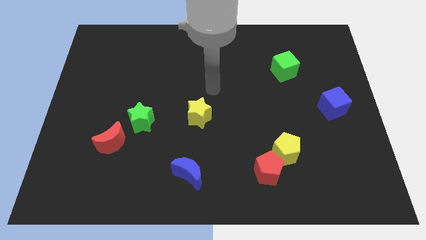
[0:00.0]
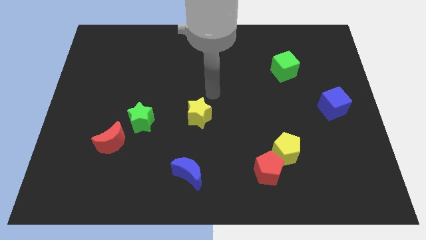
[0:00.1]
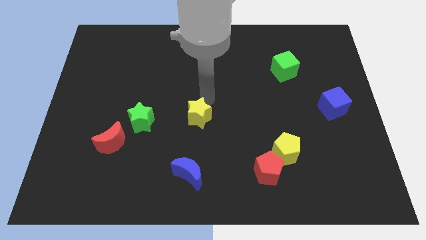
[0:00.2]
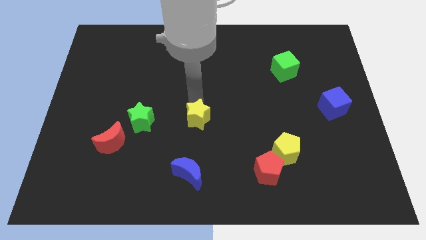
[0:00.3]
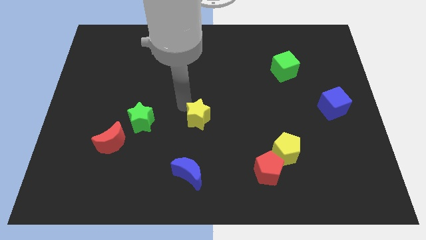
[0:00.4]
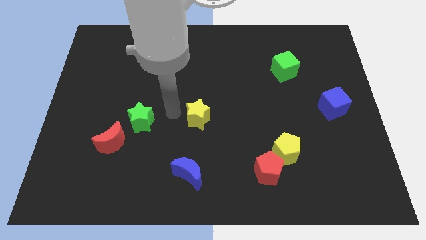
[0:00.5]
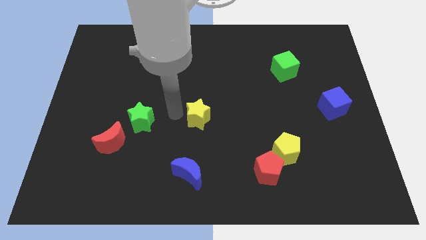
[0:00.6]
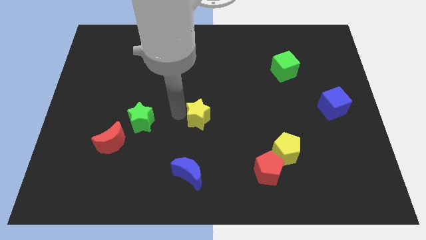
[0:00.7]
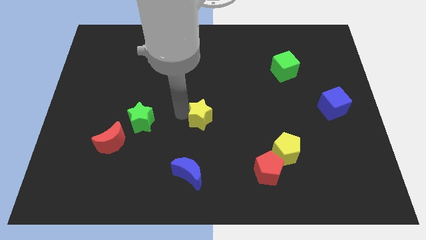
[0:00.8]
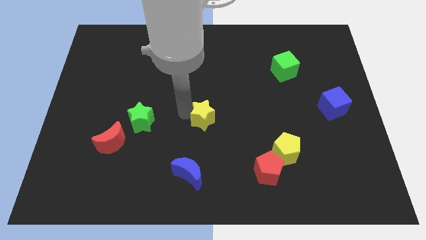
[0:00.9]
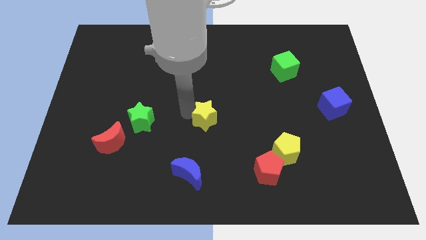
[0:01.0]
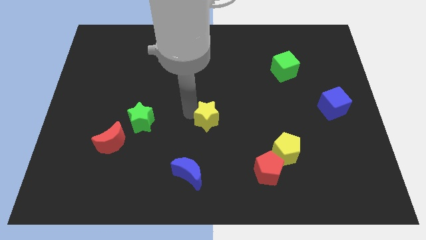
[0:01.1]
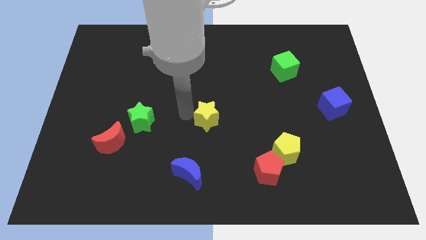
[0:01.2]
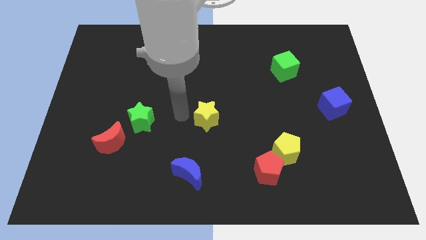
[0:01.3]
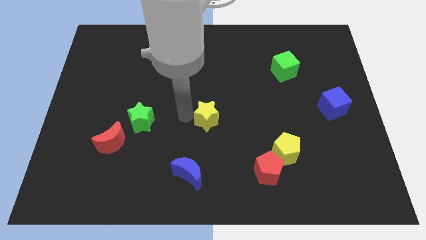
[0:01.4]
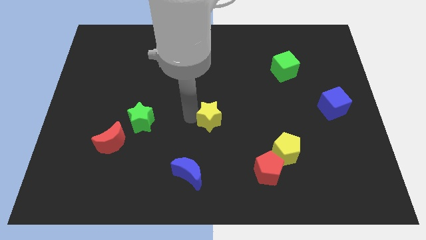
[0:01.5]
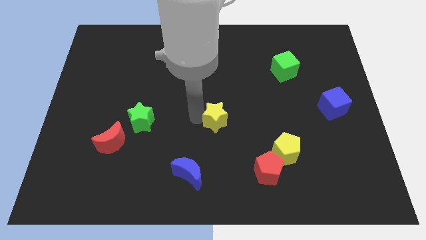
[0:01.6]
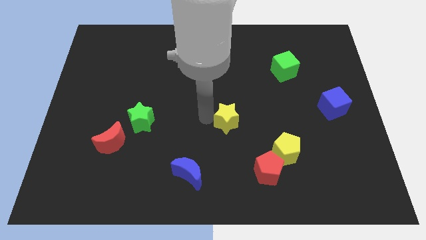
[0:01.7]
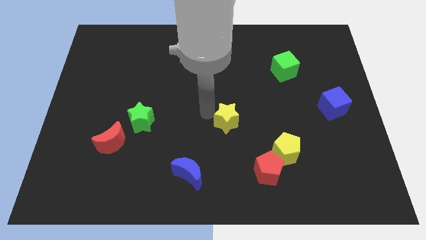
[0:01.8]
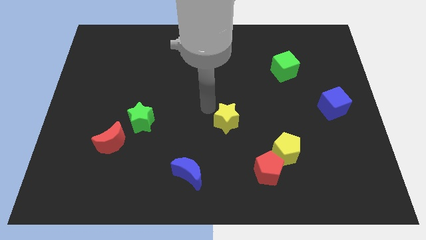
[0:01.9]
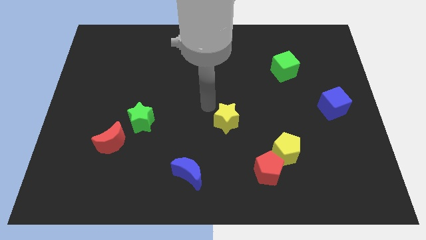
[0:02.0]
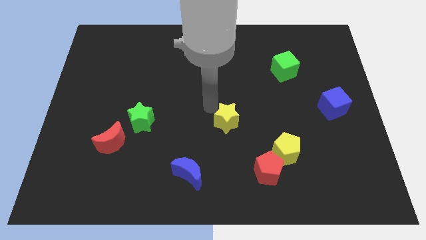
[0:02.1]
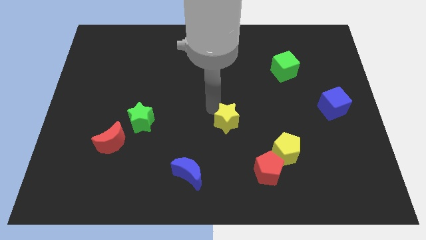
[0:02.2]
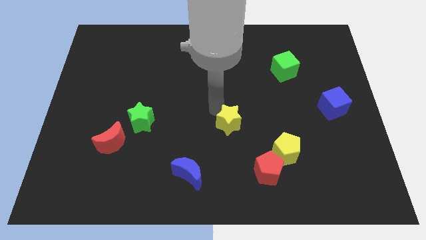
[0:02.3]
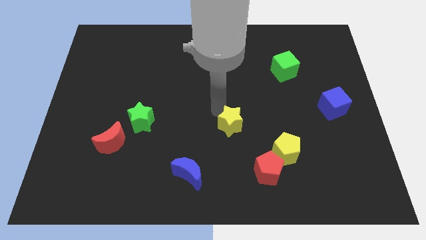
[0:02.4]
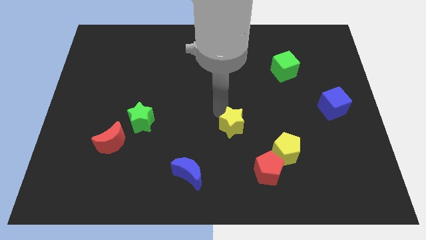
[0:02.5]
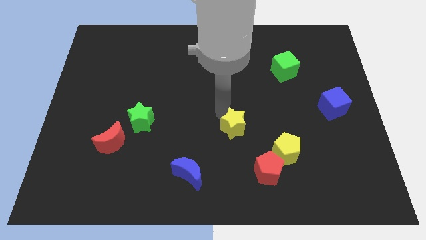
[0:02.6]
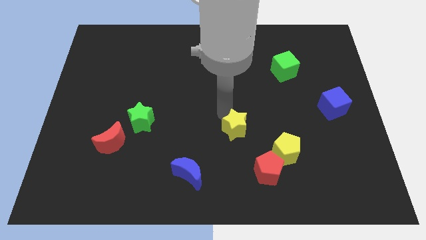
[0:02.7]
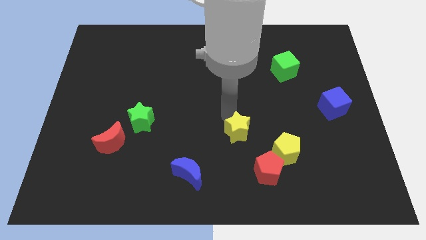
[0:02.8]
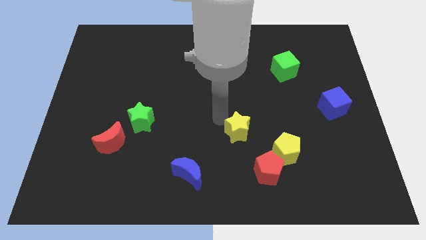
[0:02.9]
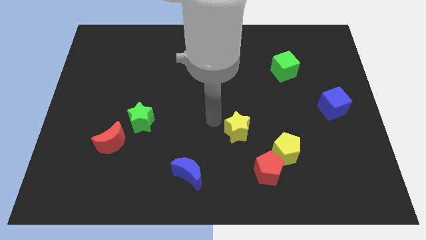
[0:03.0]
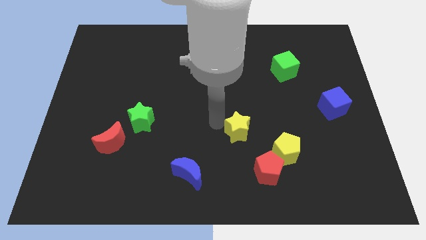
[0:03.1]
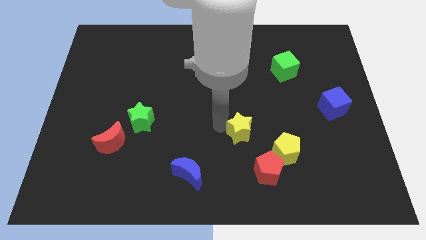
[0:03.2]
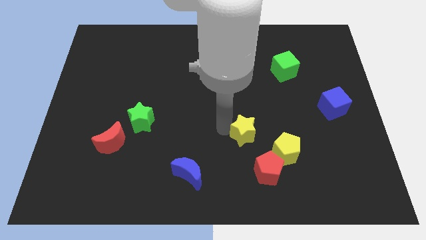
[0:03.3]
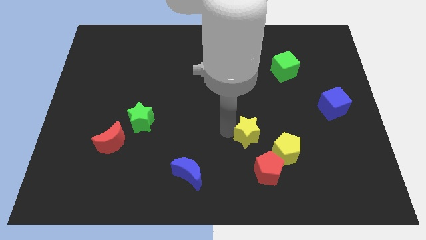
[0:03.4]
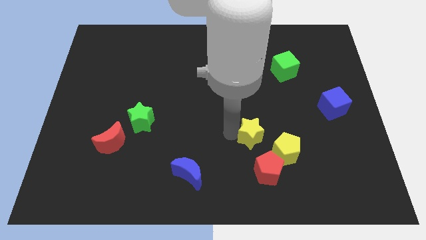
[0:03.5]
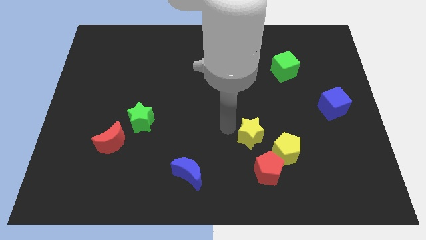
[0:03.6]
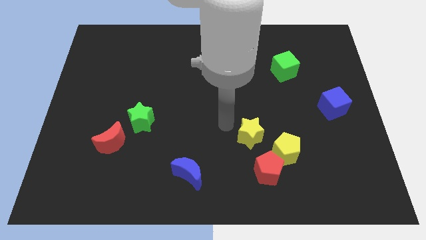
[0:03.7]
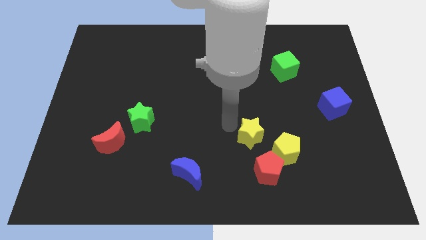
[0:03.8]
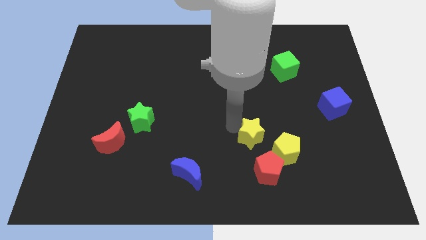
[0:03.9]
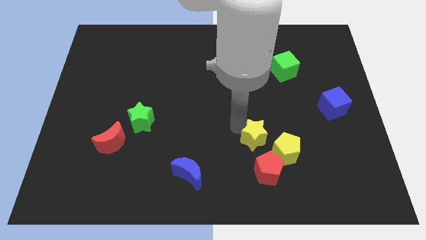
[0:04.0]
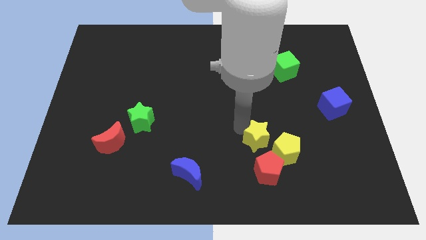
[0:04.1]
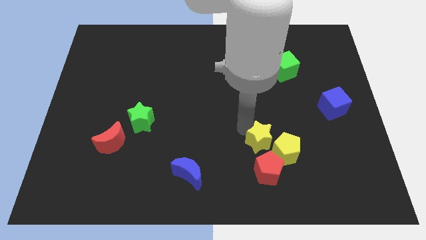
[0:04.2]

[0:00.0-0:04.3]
push the yellow star to the yellow pentagon

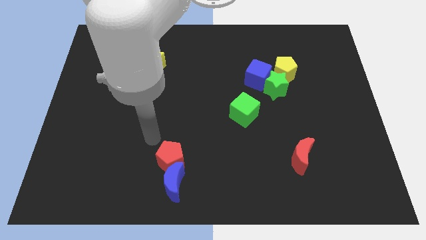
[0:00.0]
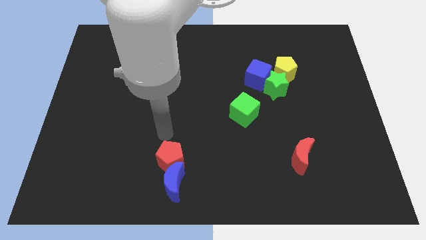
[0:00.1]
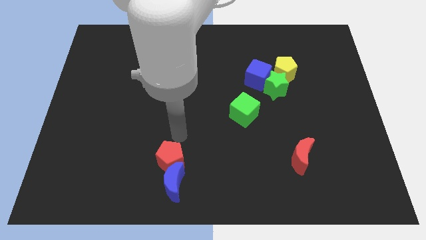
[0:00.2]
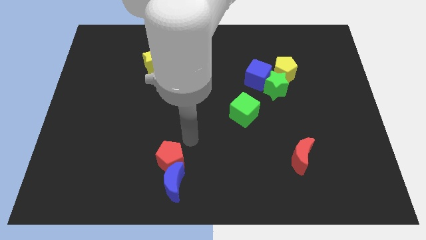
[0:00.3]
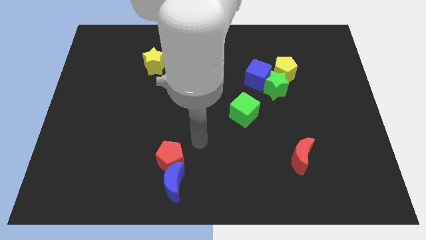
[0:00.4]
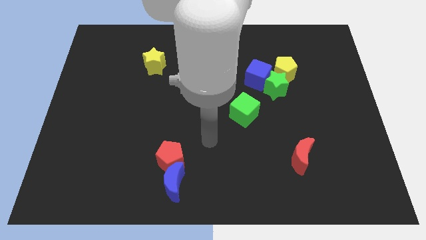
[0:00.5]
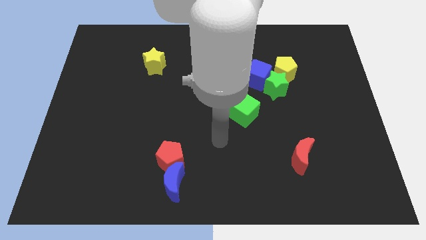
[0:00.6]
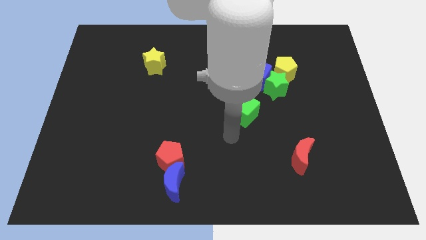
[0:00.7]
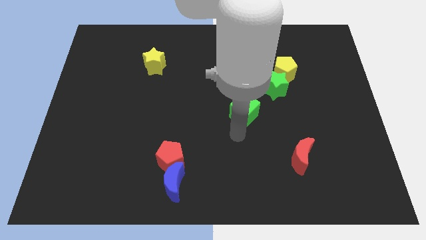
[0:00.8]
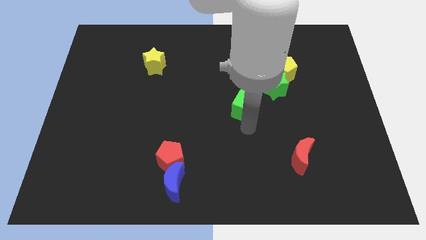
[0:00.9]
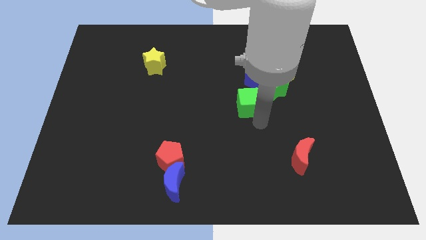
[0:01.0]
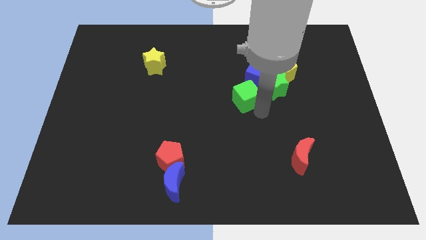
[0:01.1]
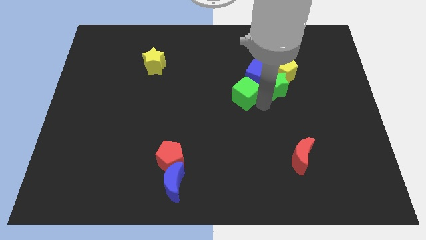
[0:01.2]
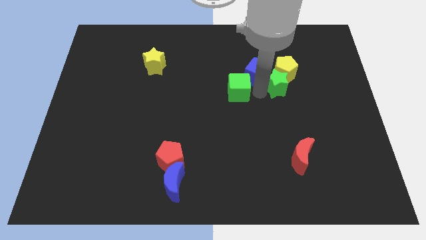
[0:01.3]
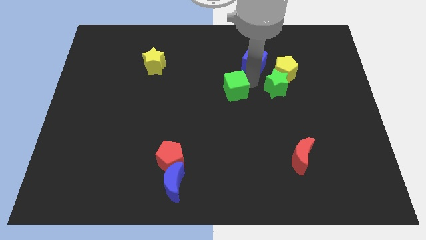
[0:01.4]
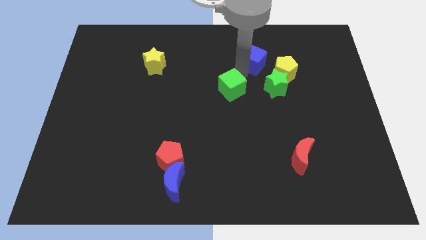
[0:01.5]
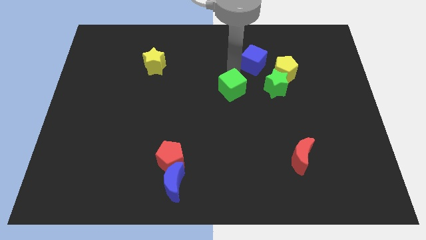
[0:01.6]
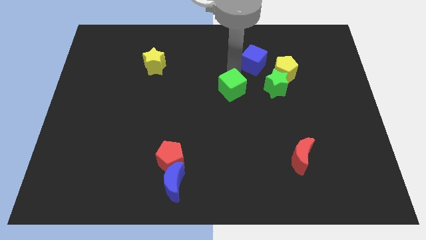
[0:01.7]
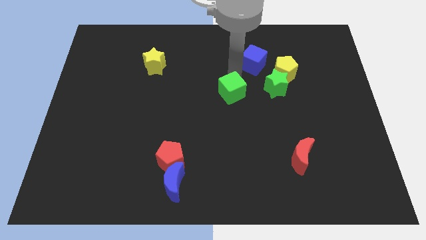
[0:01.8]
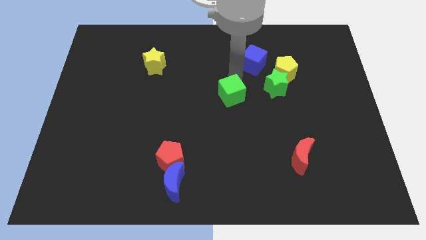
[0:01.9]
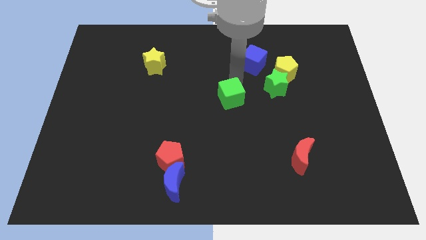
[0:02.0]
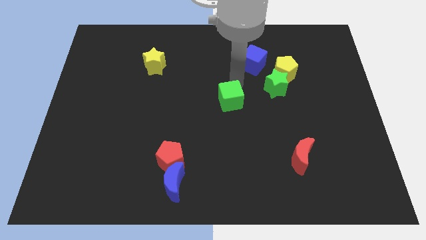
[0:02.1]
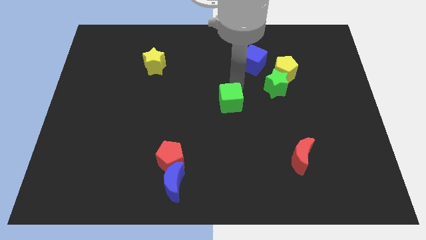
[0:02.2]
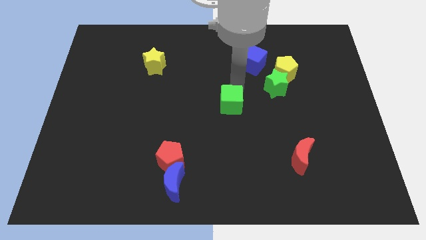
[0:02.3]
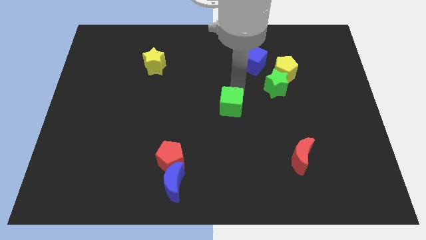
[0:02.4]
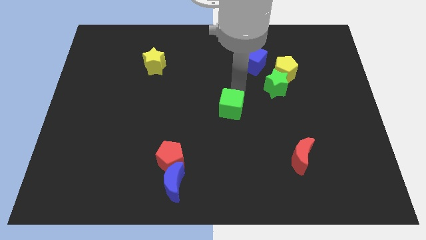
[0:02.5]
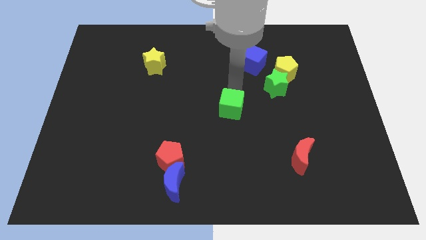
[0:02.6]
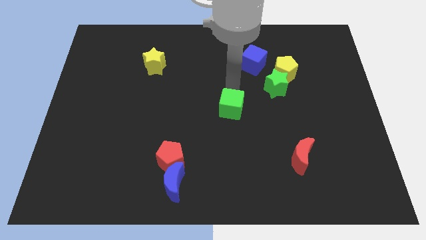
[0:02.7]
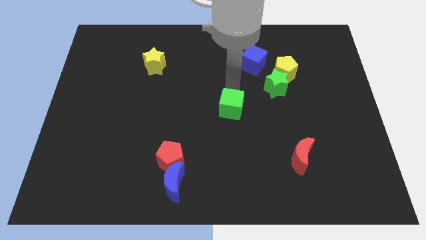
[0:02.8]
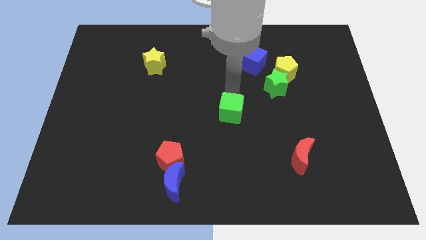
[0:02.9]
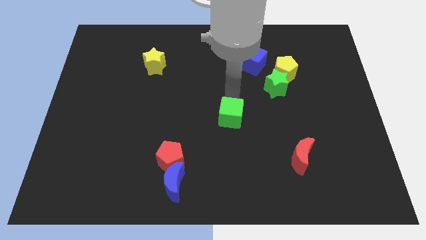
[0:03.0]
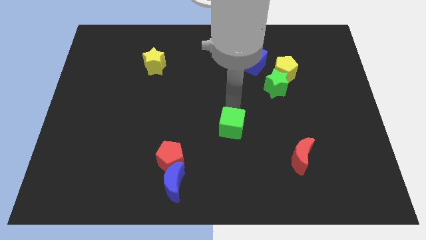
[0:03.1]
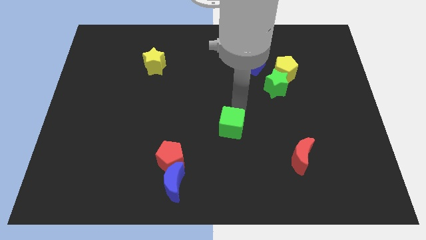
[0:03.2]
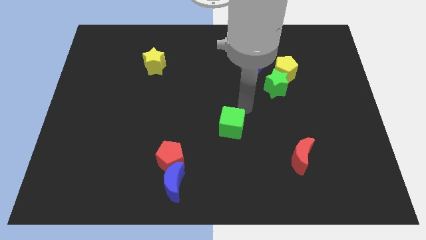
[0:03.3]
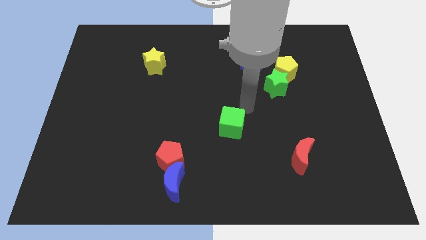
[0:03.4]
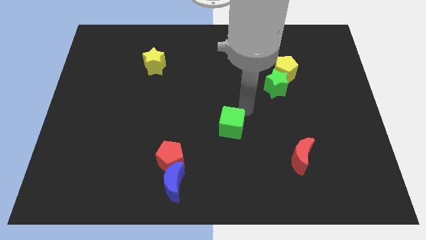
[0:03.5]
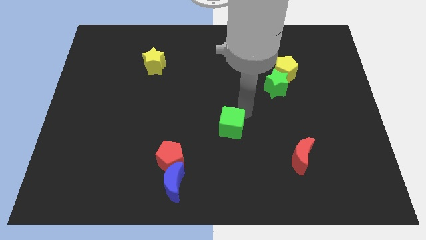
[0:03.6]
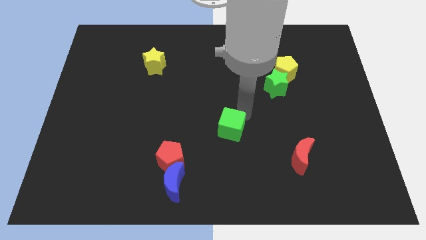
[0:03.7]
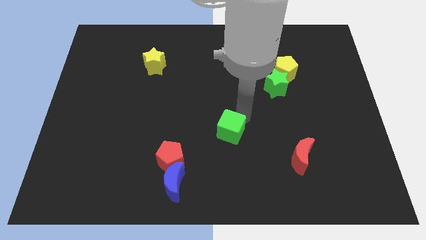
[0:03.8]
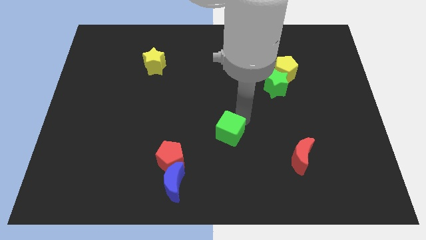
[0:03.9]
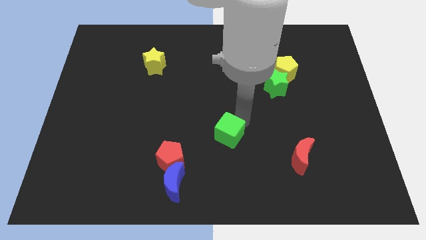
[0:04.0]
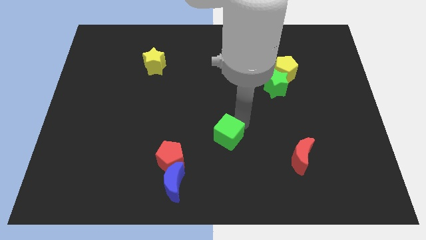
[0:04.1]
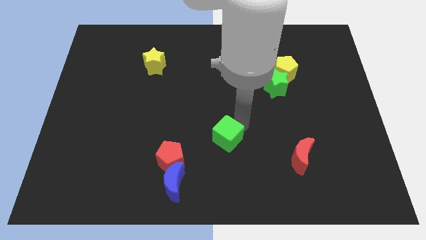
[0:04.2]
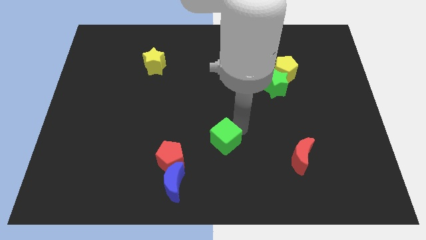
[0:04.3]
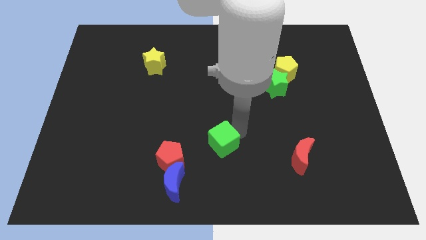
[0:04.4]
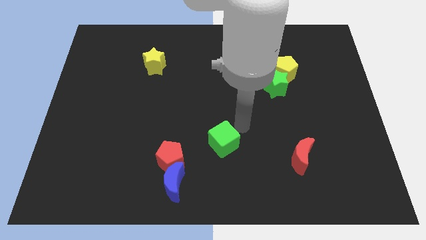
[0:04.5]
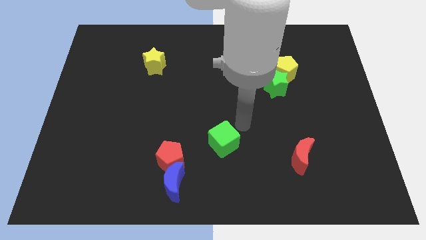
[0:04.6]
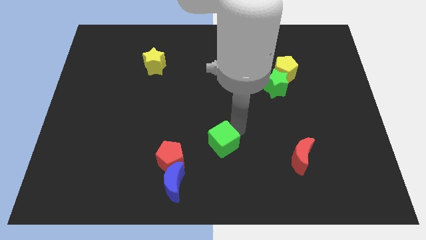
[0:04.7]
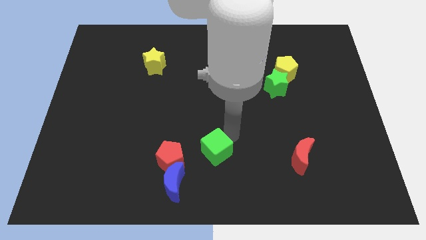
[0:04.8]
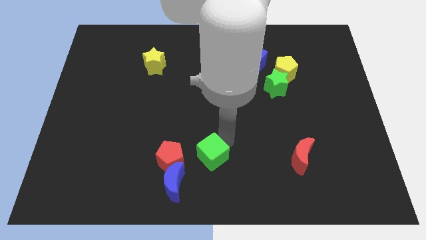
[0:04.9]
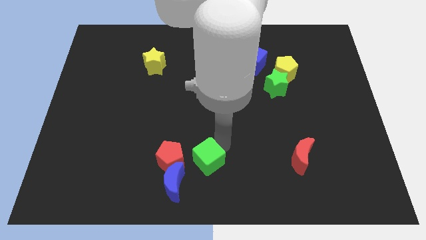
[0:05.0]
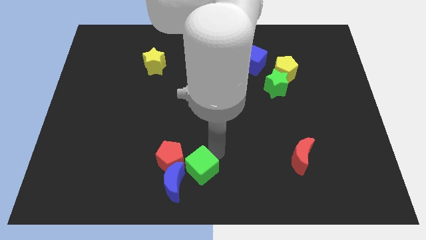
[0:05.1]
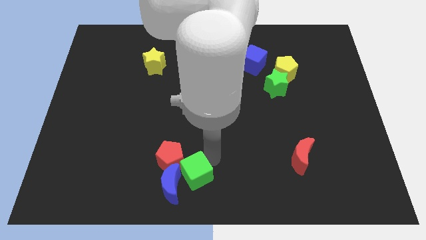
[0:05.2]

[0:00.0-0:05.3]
push the green cube close to the blue moon
